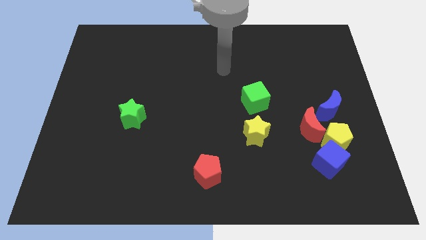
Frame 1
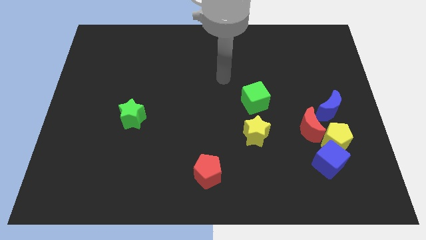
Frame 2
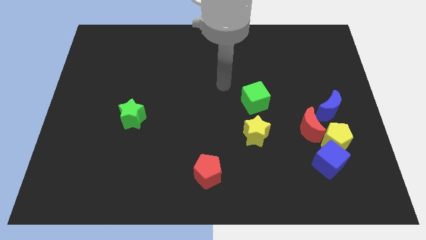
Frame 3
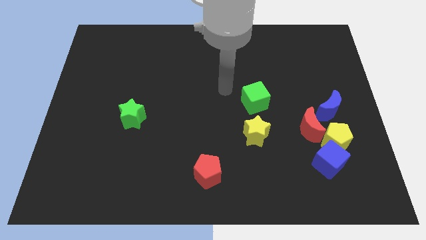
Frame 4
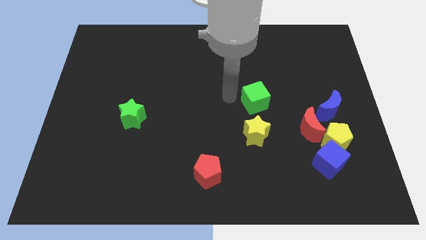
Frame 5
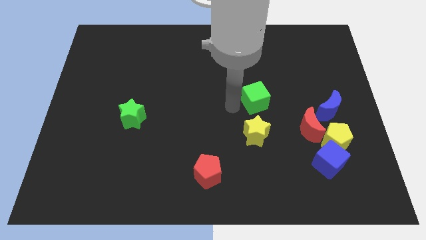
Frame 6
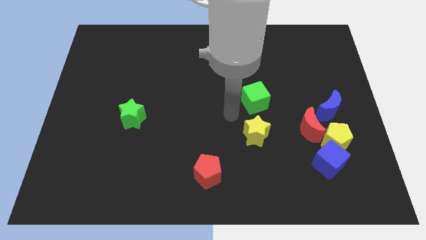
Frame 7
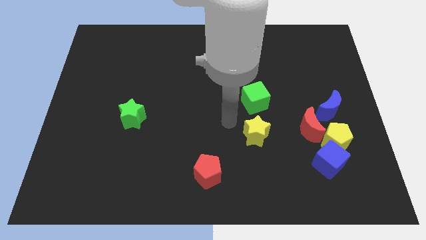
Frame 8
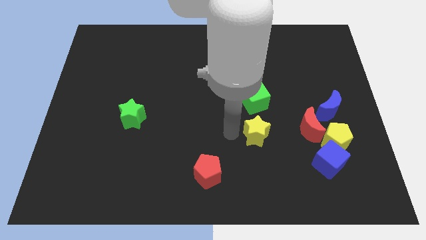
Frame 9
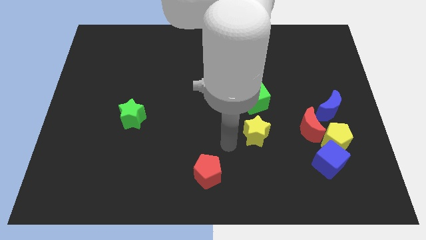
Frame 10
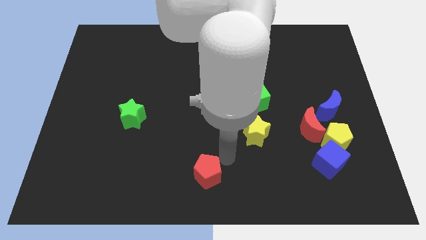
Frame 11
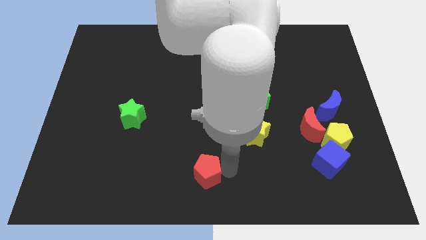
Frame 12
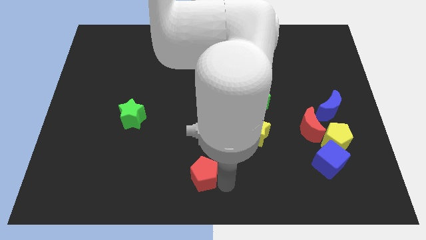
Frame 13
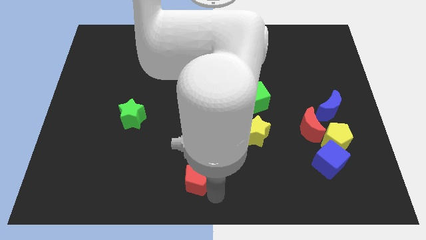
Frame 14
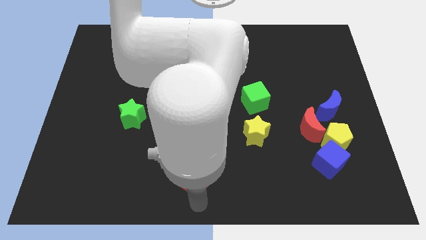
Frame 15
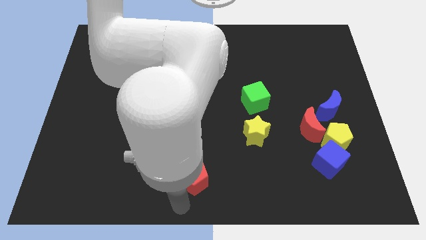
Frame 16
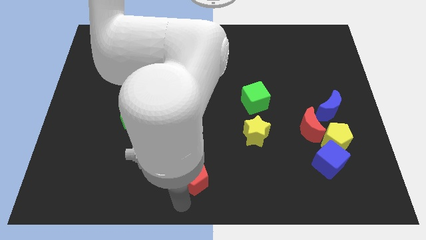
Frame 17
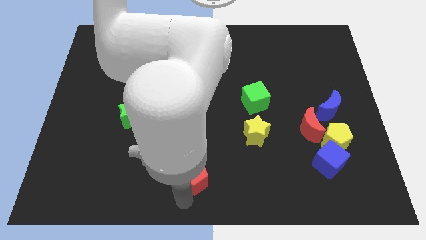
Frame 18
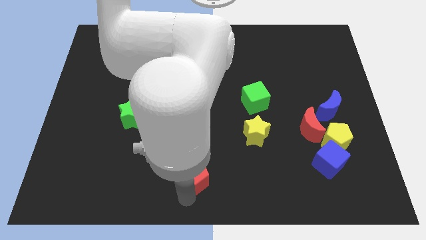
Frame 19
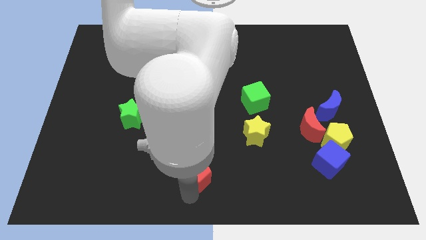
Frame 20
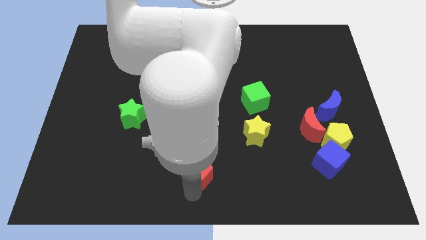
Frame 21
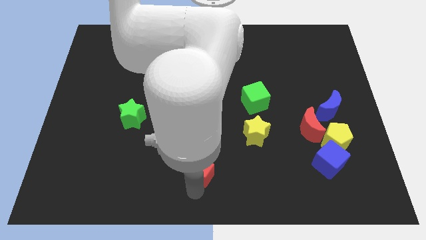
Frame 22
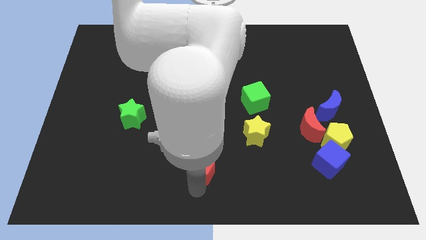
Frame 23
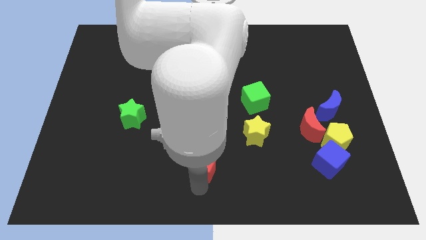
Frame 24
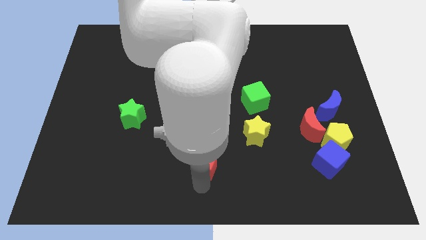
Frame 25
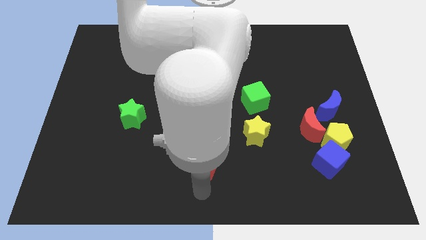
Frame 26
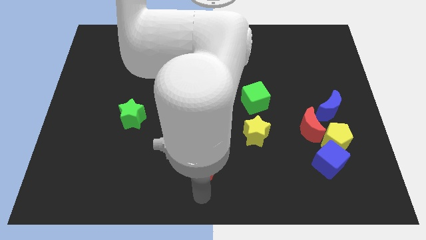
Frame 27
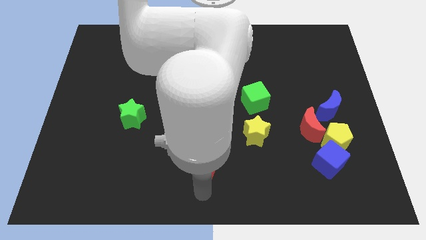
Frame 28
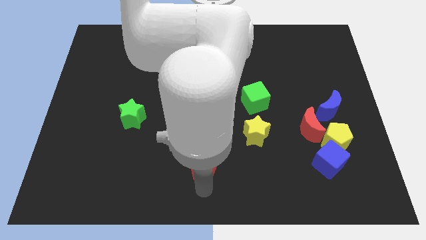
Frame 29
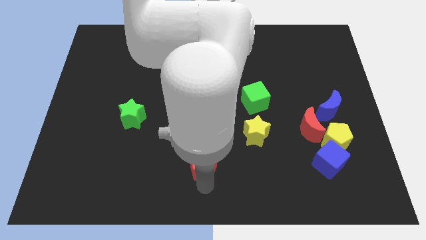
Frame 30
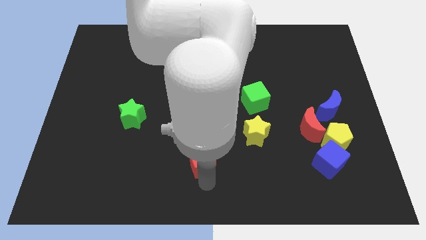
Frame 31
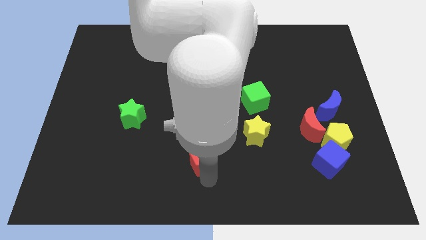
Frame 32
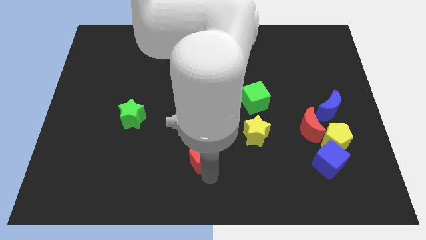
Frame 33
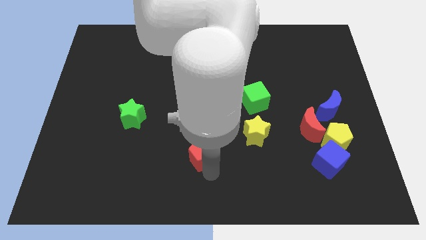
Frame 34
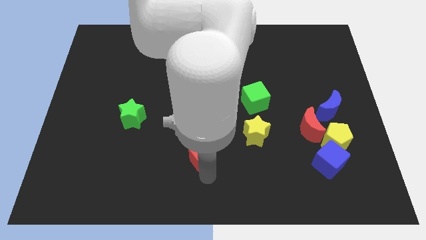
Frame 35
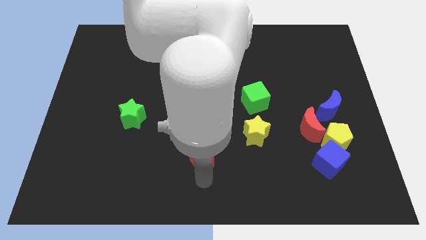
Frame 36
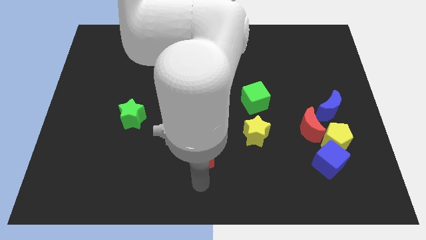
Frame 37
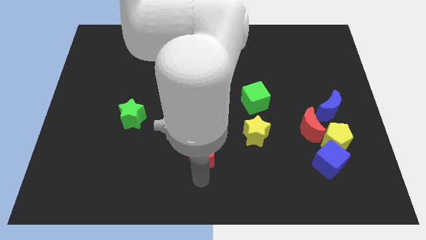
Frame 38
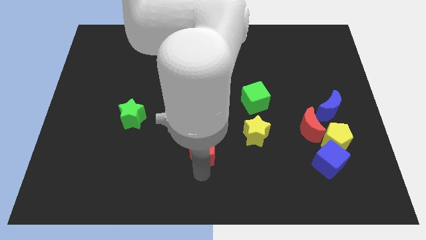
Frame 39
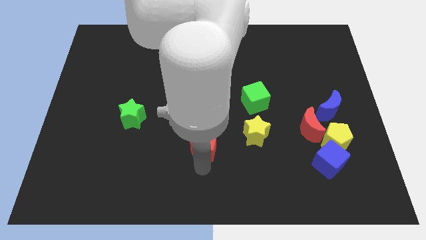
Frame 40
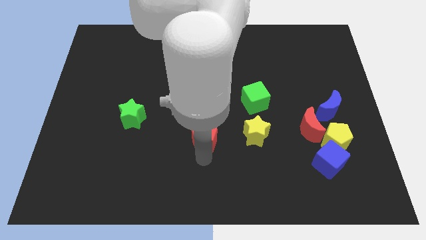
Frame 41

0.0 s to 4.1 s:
move the red pentagon somewhat upwards

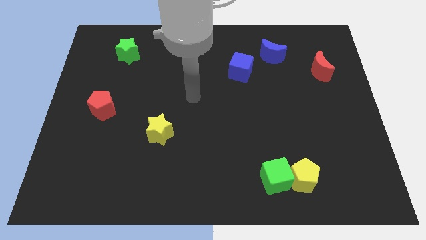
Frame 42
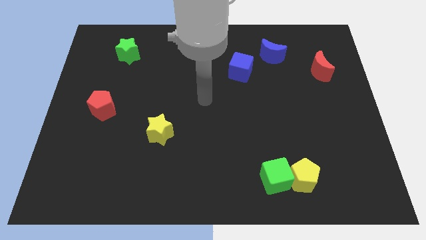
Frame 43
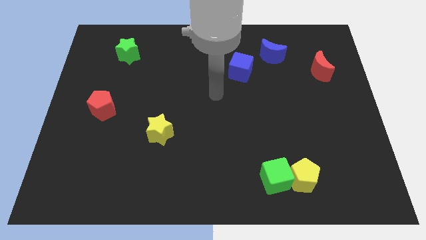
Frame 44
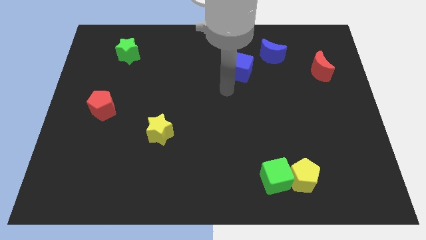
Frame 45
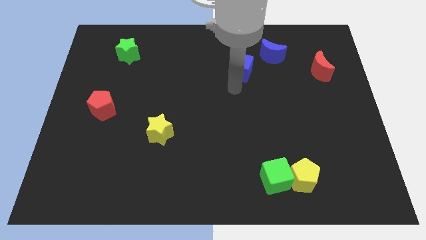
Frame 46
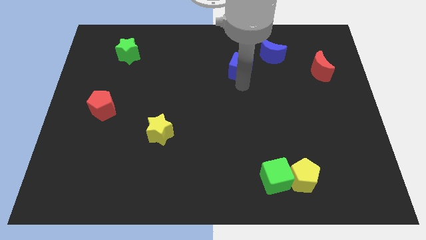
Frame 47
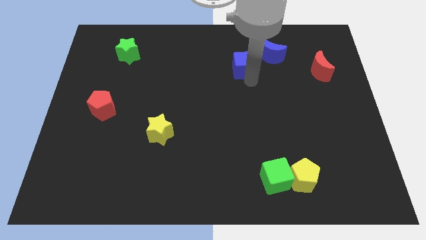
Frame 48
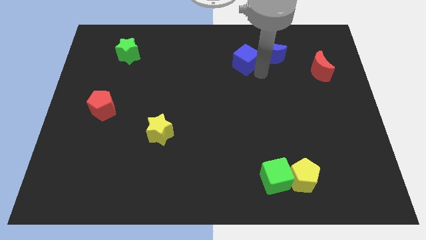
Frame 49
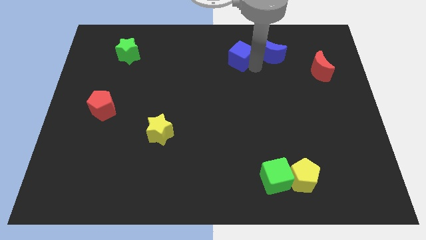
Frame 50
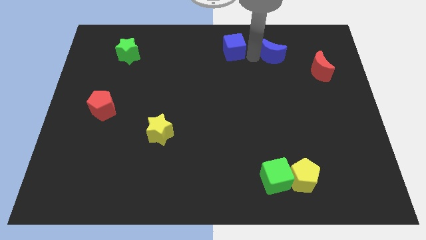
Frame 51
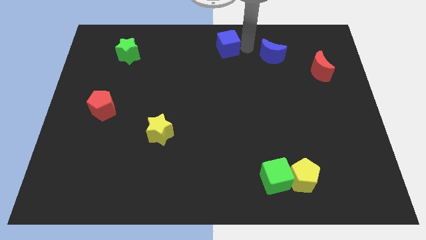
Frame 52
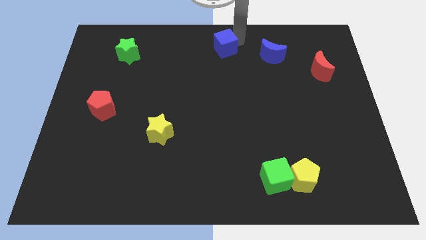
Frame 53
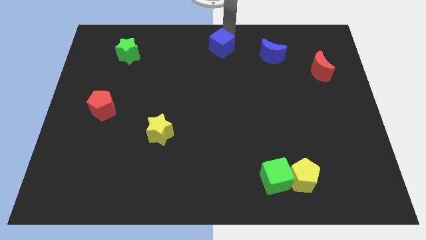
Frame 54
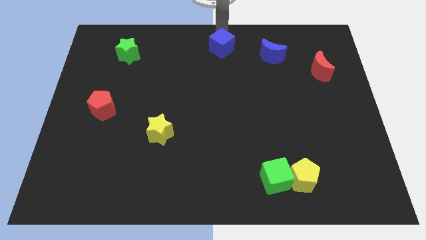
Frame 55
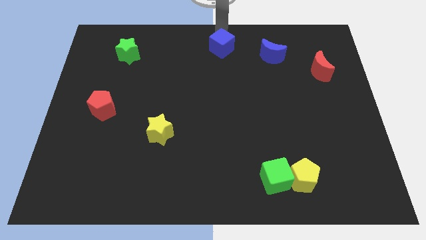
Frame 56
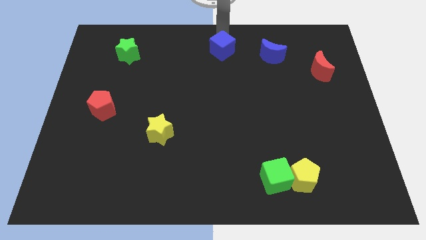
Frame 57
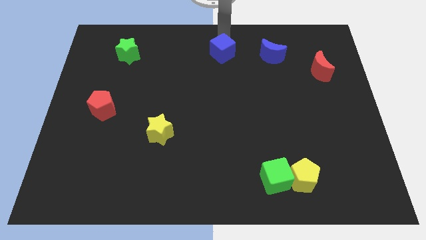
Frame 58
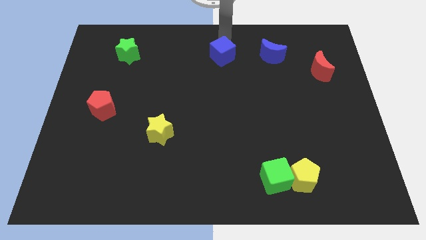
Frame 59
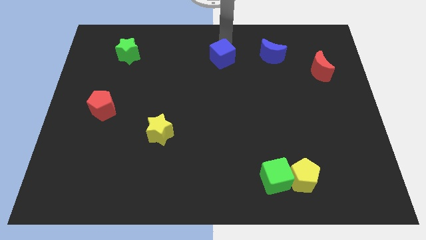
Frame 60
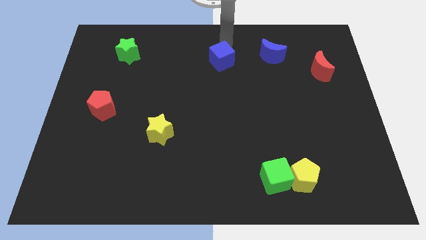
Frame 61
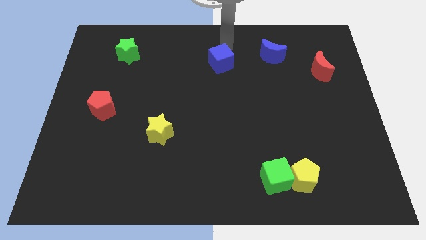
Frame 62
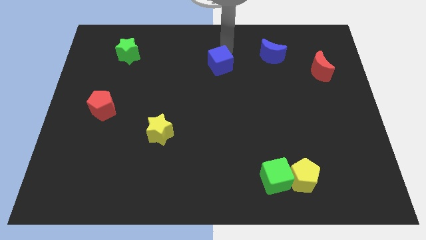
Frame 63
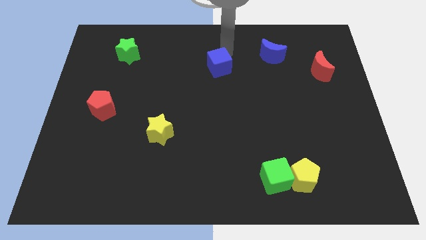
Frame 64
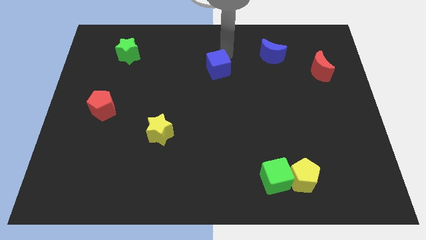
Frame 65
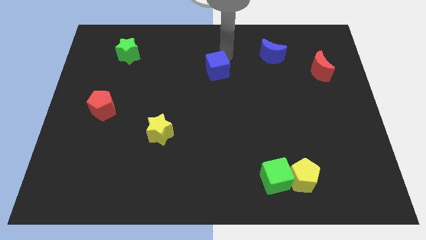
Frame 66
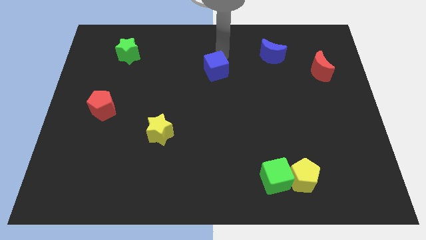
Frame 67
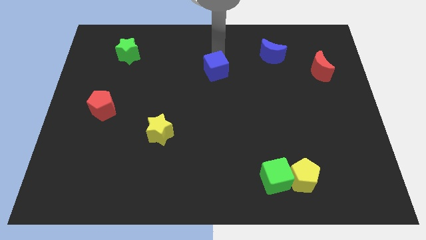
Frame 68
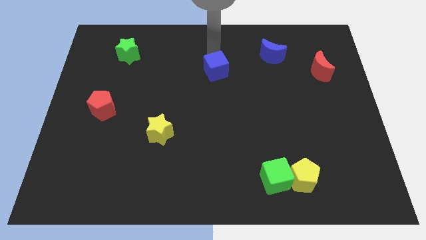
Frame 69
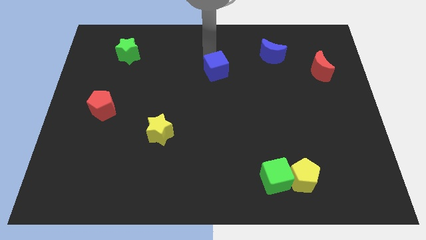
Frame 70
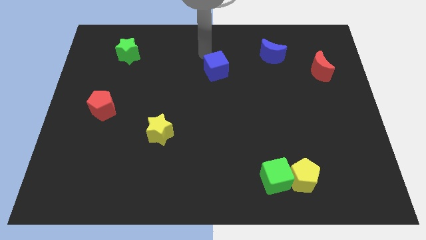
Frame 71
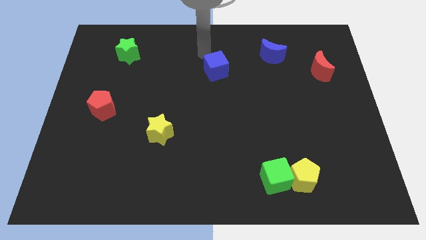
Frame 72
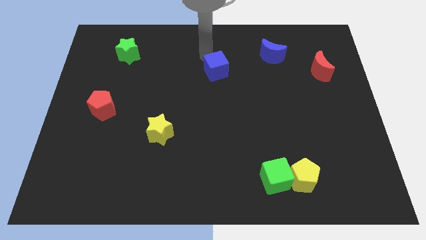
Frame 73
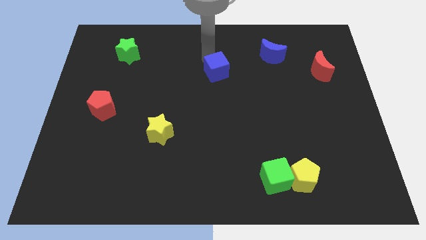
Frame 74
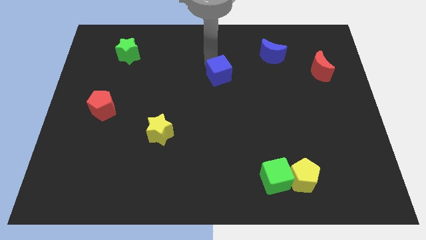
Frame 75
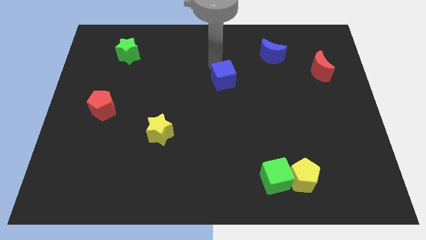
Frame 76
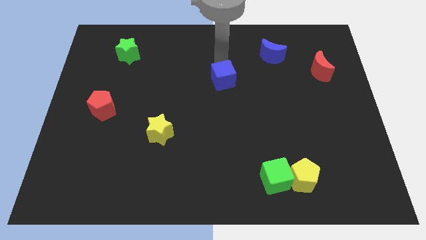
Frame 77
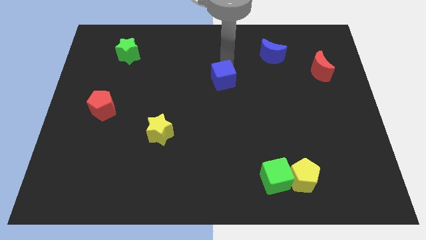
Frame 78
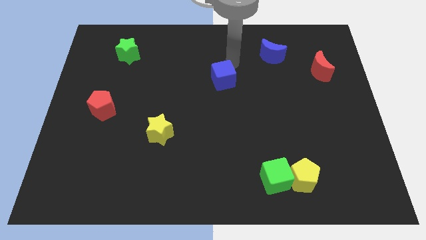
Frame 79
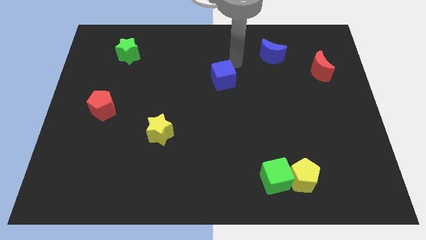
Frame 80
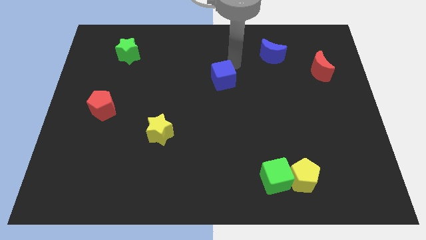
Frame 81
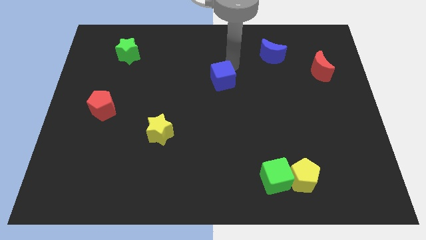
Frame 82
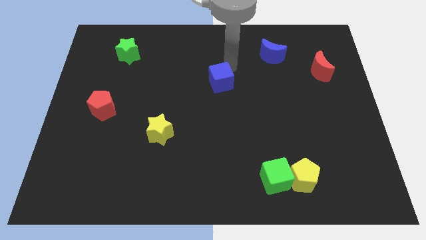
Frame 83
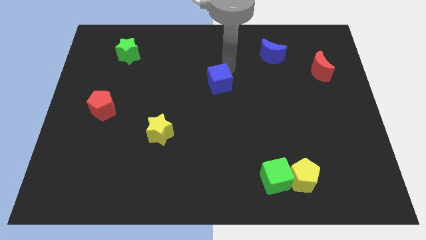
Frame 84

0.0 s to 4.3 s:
slightly move the blue cube diagonally downwards and to the left
